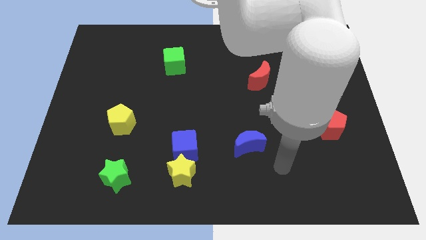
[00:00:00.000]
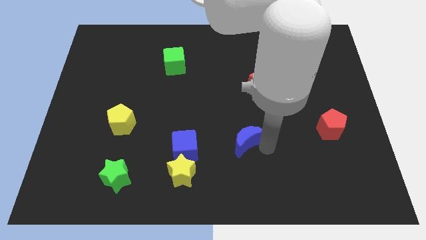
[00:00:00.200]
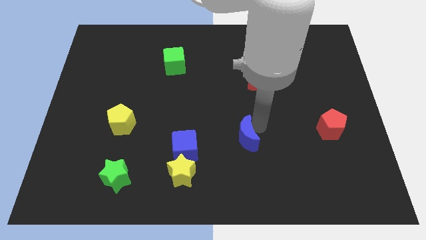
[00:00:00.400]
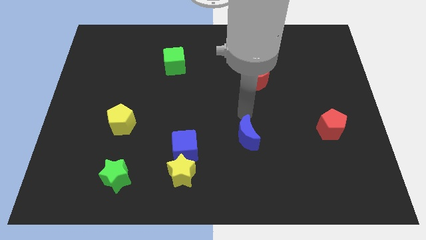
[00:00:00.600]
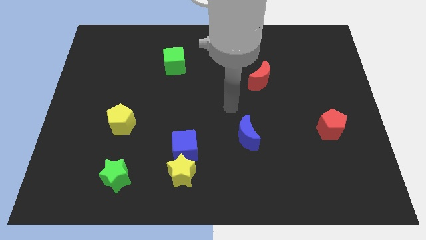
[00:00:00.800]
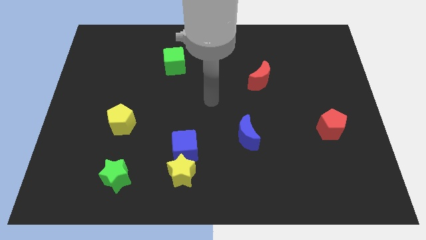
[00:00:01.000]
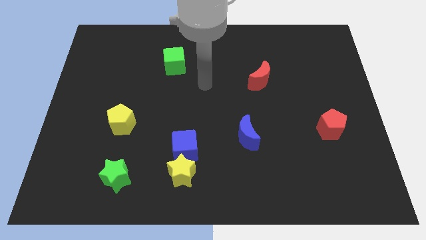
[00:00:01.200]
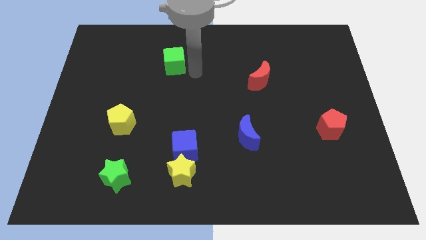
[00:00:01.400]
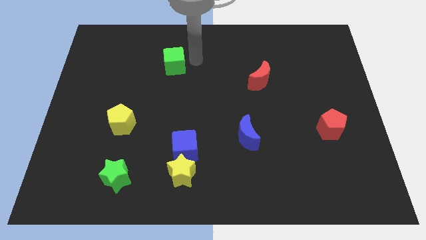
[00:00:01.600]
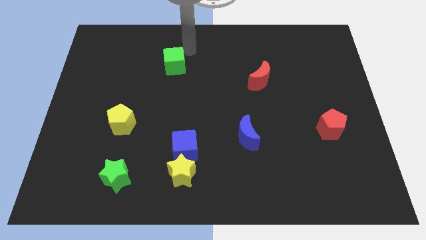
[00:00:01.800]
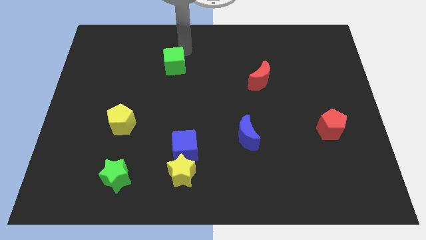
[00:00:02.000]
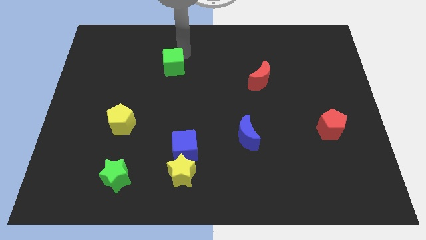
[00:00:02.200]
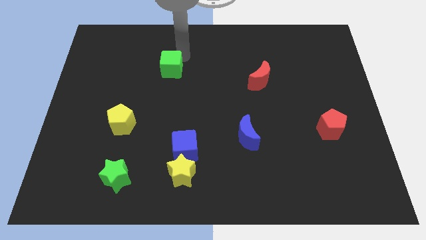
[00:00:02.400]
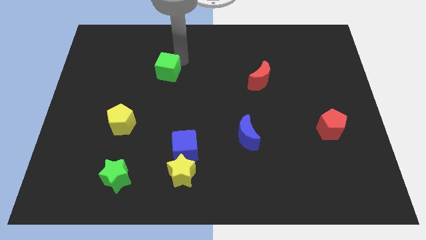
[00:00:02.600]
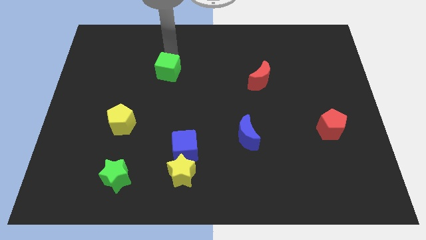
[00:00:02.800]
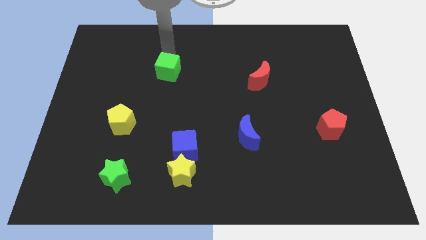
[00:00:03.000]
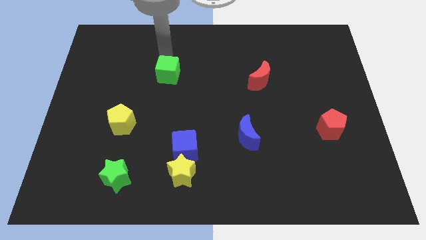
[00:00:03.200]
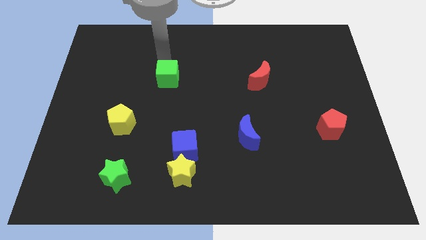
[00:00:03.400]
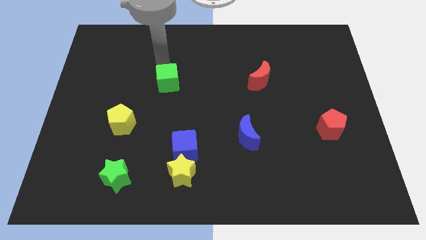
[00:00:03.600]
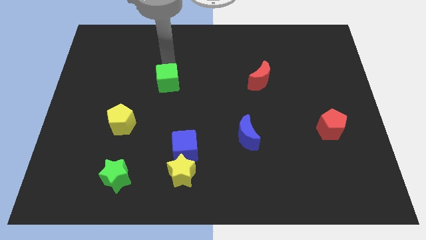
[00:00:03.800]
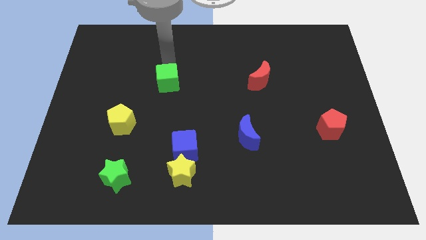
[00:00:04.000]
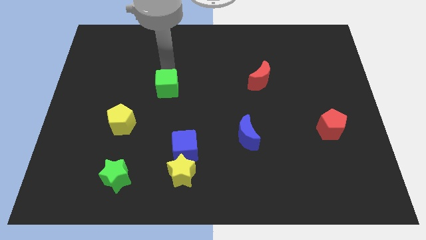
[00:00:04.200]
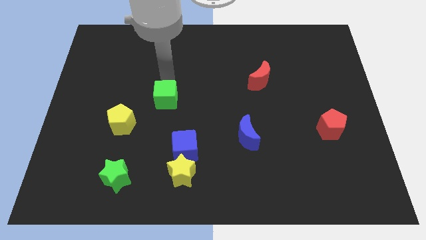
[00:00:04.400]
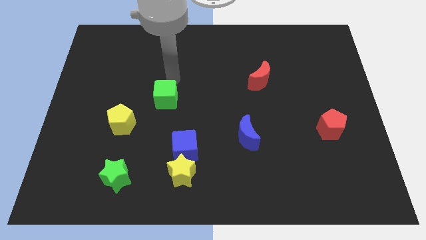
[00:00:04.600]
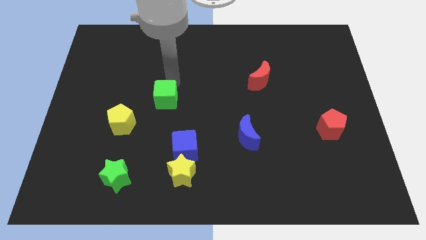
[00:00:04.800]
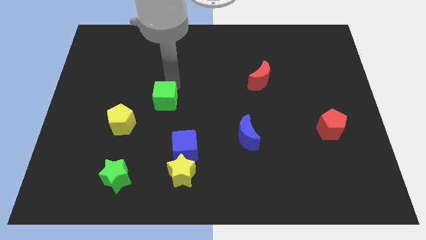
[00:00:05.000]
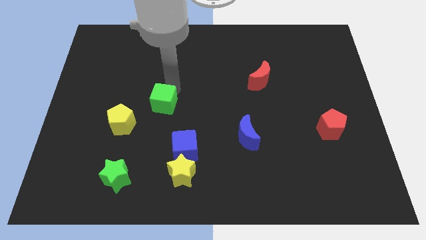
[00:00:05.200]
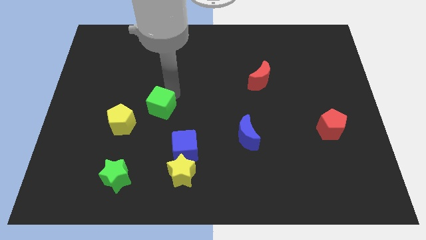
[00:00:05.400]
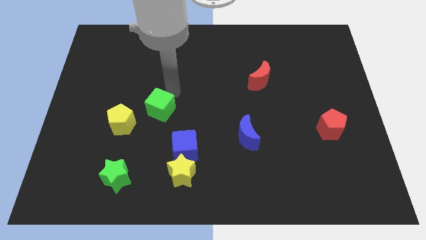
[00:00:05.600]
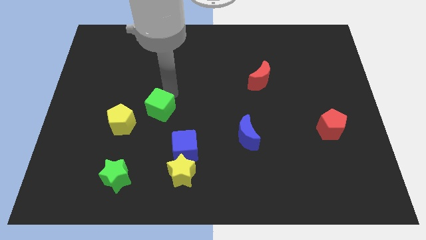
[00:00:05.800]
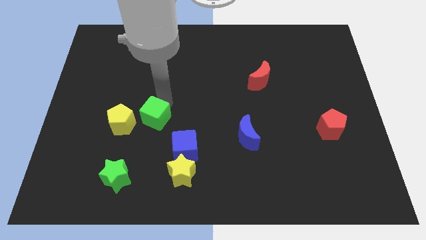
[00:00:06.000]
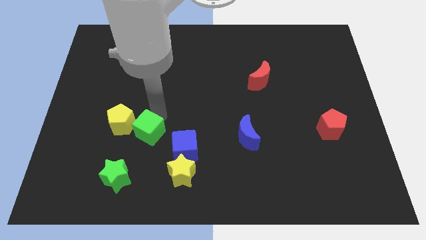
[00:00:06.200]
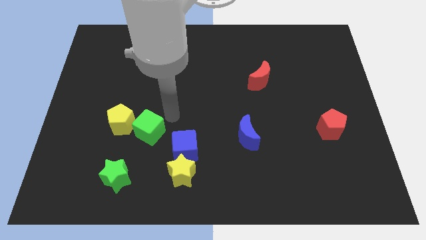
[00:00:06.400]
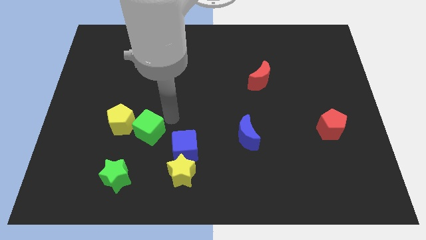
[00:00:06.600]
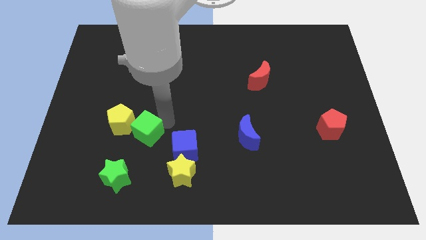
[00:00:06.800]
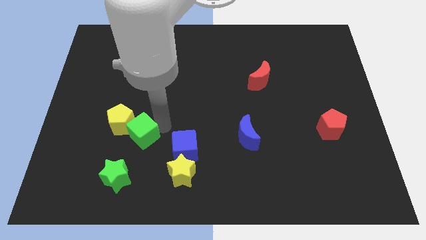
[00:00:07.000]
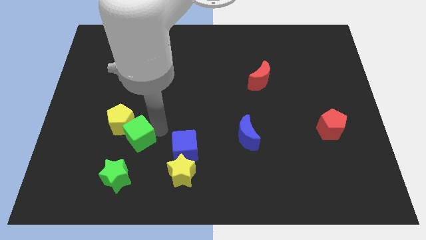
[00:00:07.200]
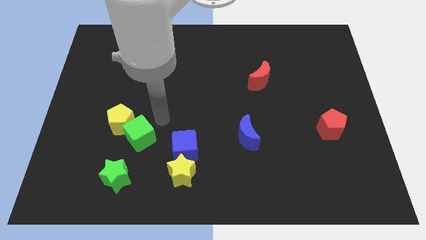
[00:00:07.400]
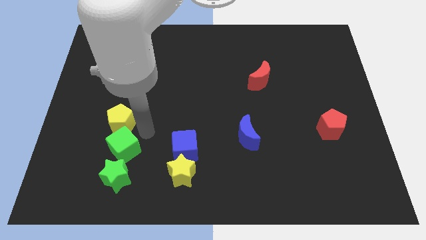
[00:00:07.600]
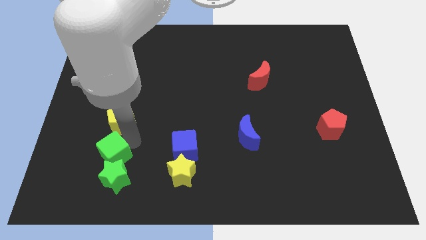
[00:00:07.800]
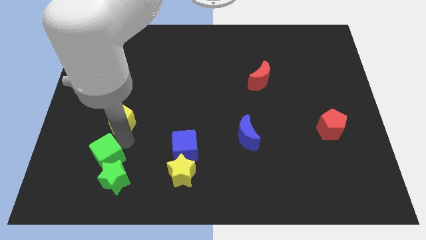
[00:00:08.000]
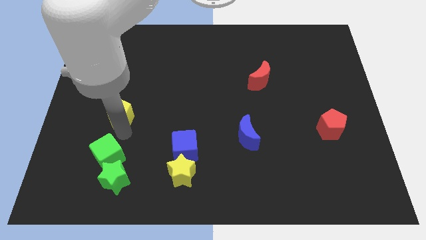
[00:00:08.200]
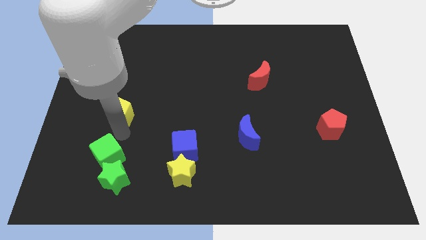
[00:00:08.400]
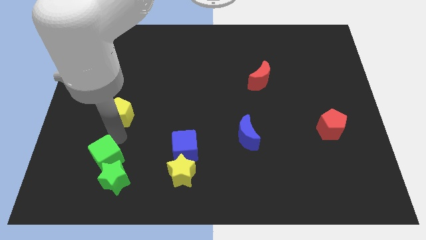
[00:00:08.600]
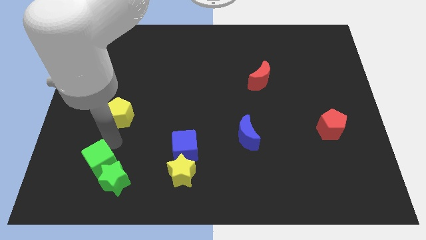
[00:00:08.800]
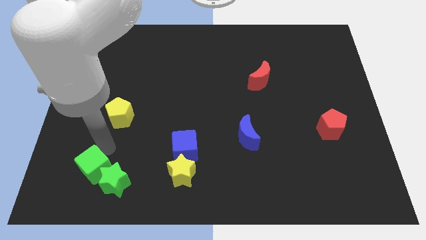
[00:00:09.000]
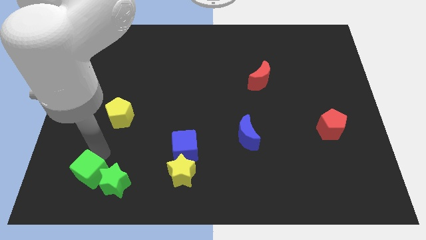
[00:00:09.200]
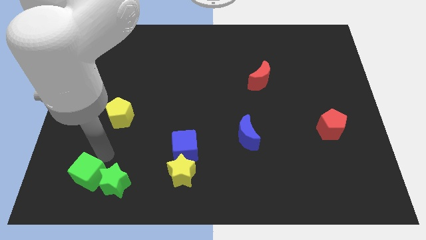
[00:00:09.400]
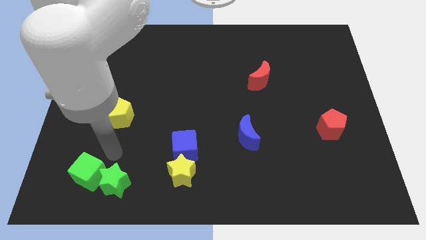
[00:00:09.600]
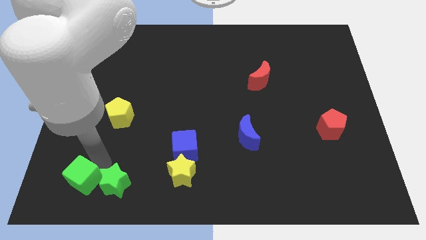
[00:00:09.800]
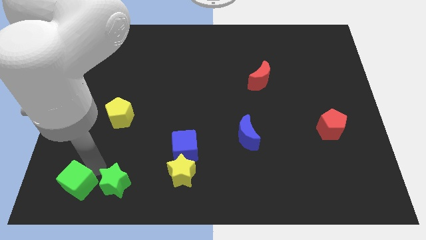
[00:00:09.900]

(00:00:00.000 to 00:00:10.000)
slide the green cube to the lower left corner

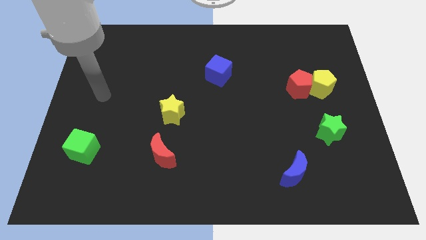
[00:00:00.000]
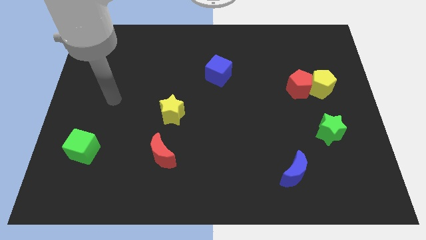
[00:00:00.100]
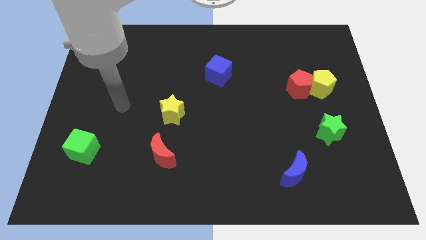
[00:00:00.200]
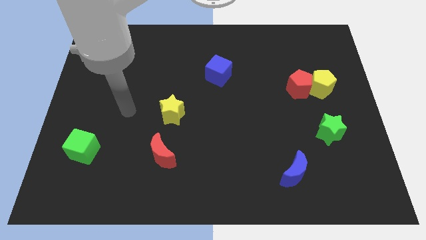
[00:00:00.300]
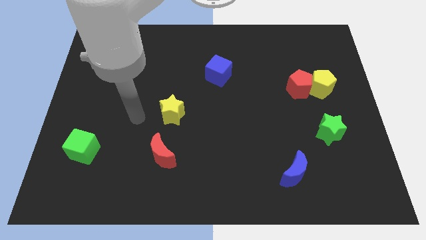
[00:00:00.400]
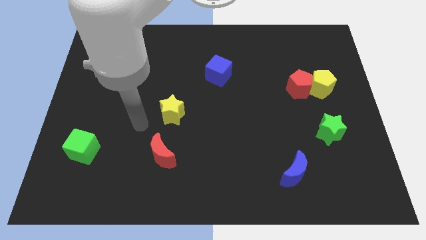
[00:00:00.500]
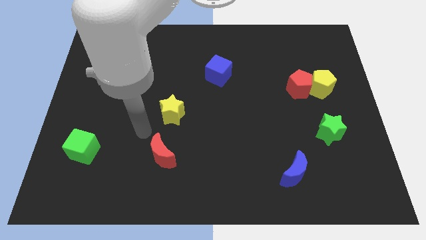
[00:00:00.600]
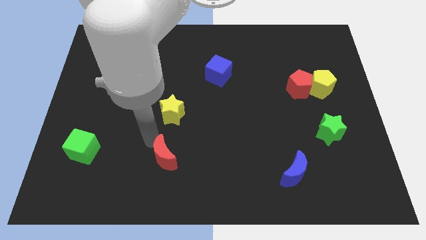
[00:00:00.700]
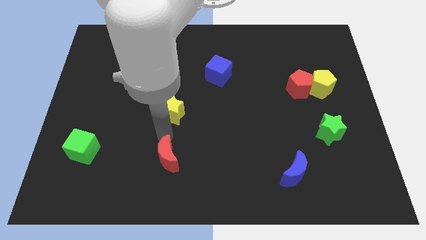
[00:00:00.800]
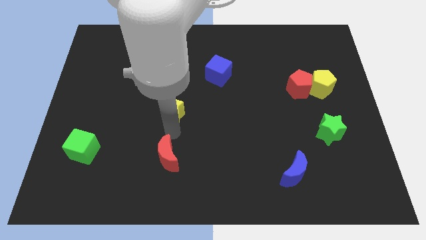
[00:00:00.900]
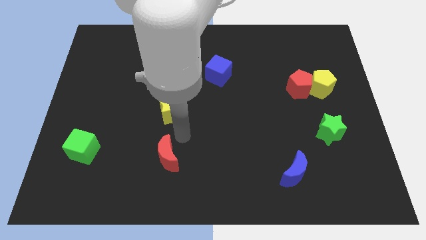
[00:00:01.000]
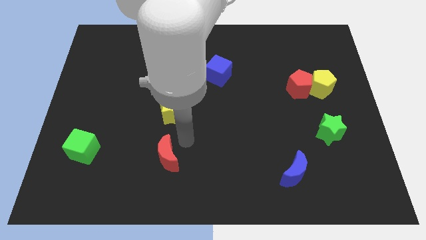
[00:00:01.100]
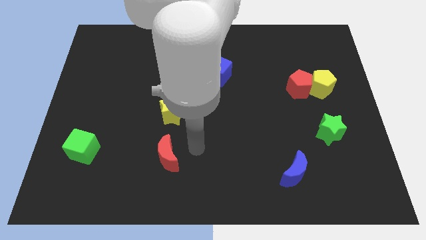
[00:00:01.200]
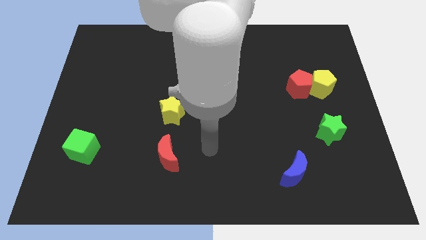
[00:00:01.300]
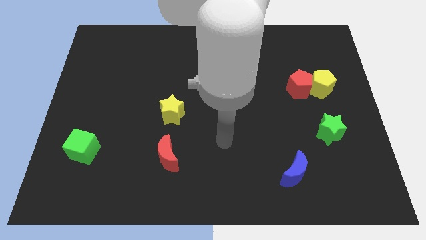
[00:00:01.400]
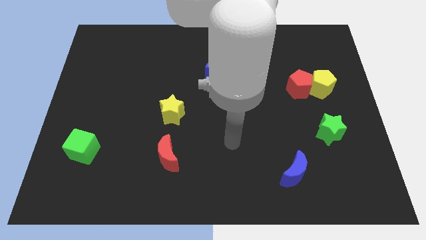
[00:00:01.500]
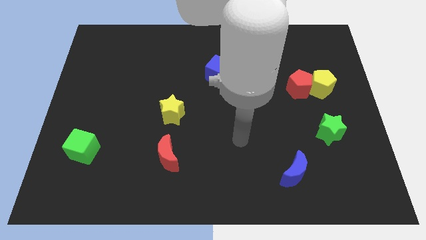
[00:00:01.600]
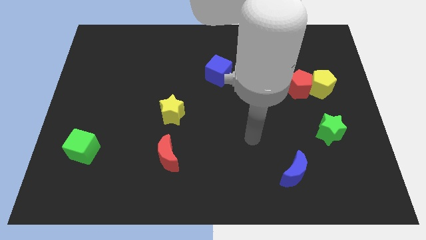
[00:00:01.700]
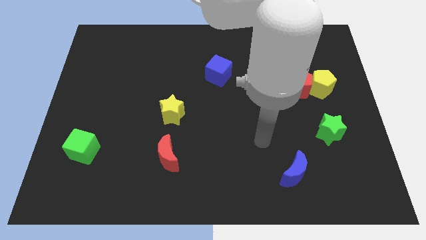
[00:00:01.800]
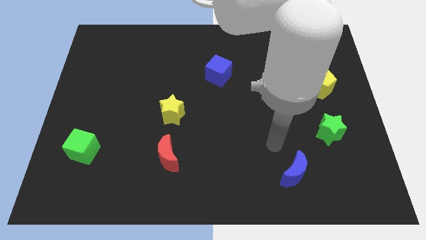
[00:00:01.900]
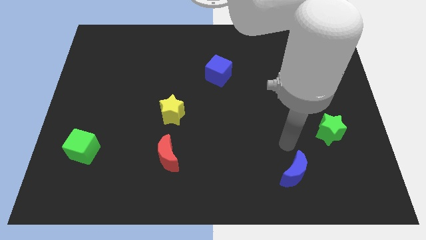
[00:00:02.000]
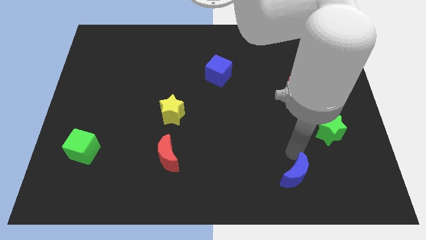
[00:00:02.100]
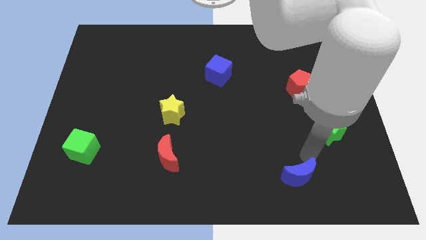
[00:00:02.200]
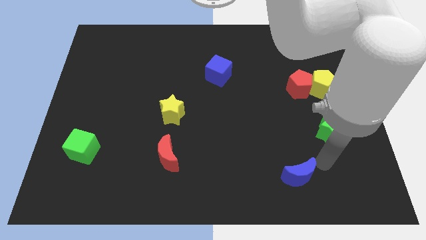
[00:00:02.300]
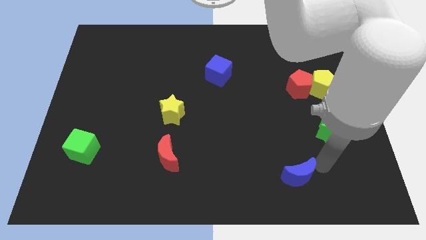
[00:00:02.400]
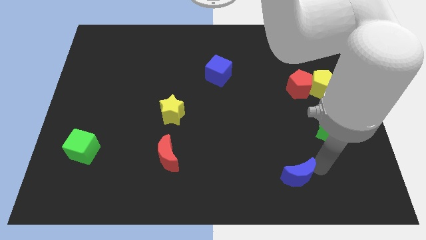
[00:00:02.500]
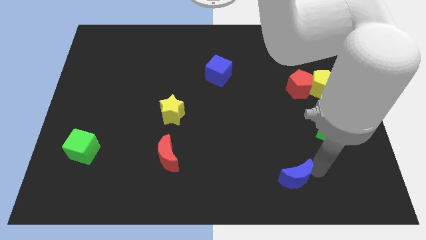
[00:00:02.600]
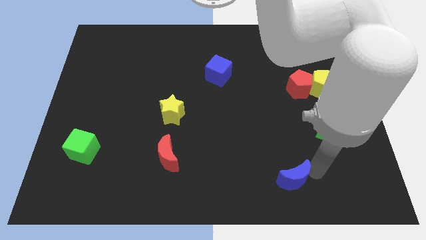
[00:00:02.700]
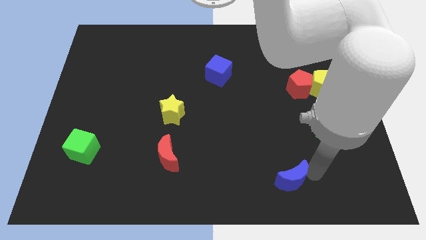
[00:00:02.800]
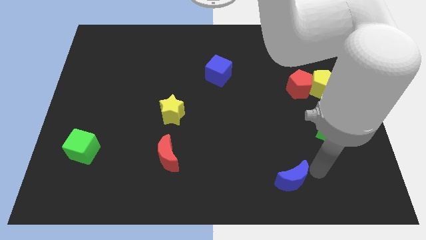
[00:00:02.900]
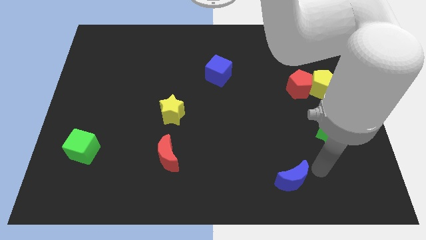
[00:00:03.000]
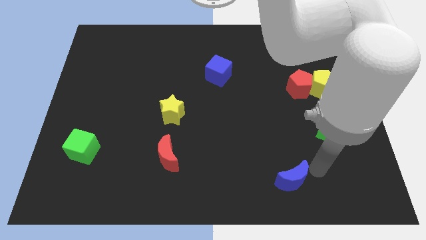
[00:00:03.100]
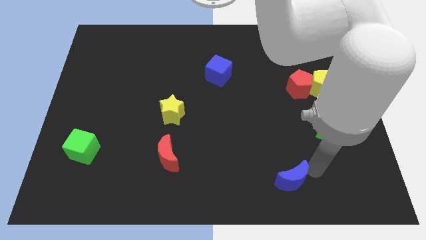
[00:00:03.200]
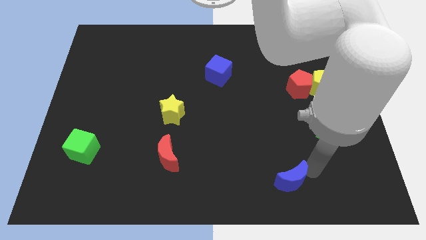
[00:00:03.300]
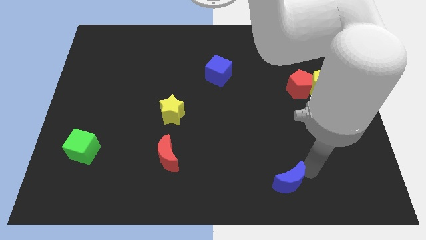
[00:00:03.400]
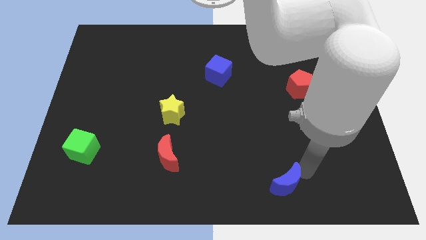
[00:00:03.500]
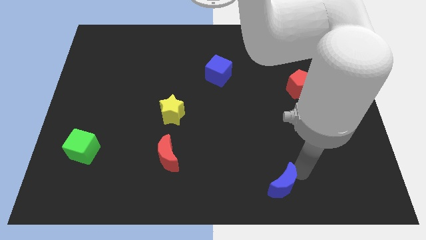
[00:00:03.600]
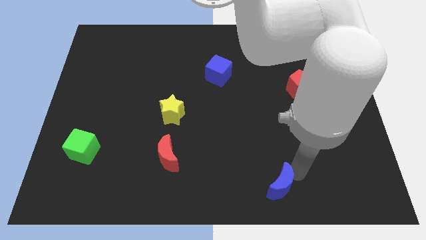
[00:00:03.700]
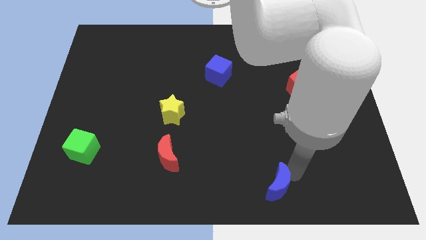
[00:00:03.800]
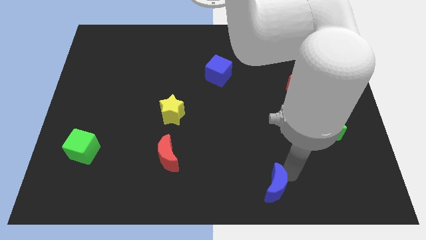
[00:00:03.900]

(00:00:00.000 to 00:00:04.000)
push the blue moon to the bottom side
